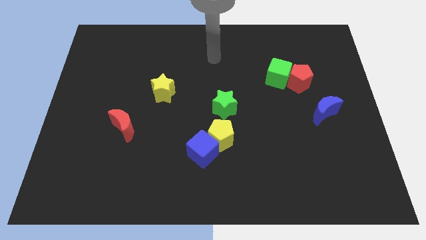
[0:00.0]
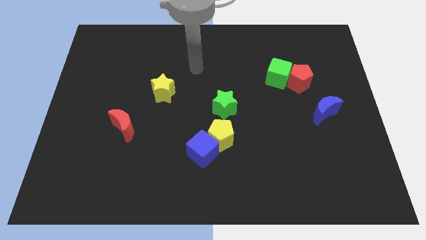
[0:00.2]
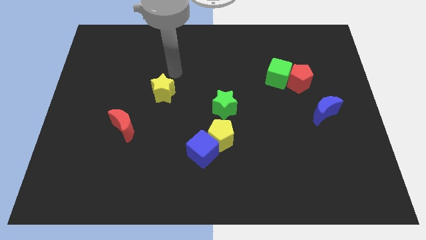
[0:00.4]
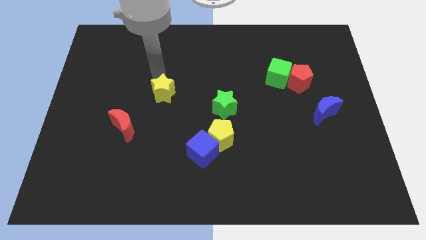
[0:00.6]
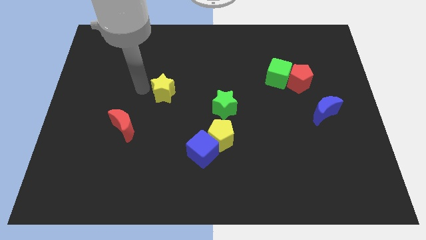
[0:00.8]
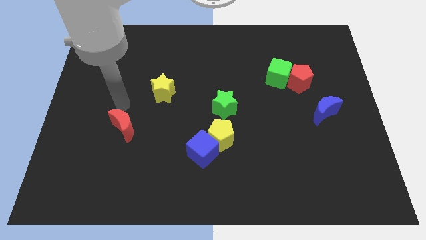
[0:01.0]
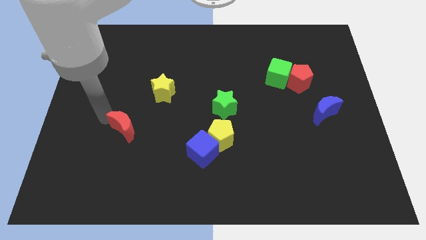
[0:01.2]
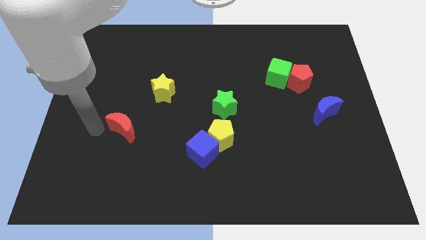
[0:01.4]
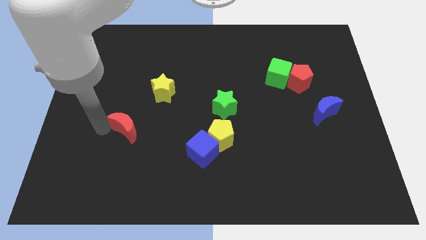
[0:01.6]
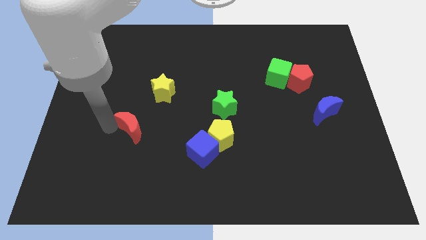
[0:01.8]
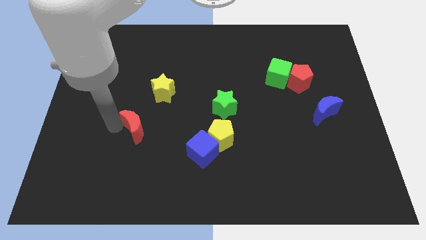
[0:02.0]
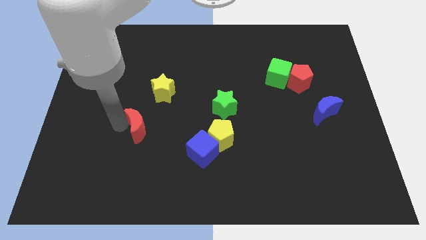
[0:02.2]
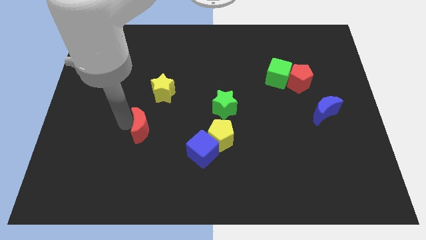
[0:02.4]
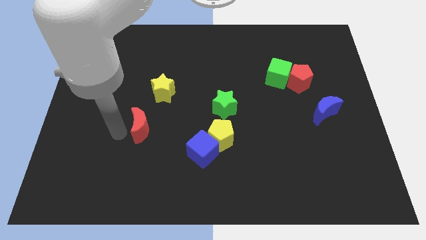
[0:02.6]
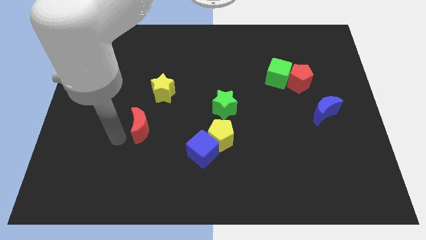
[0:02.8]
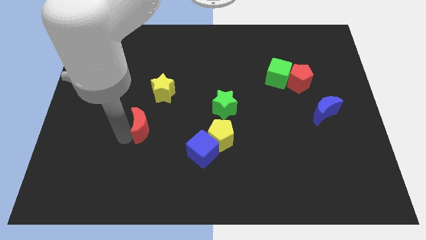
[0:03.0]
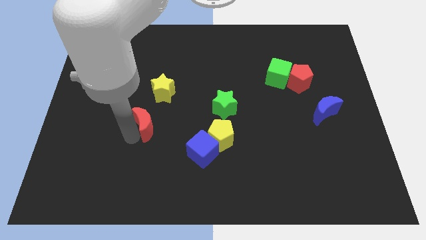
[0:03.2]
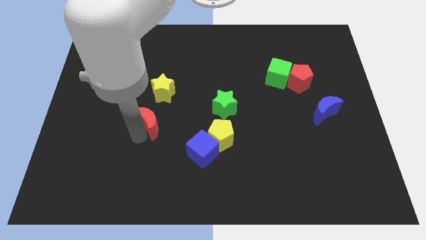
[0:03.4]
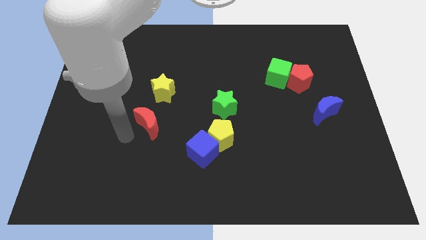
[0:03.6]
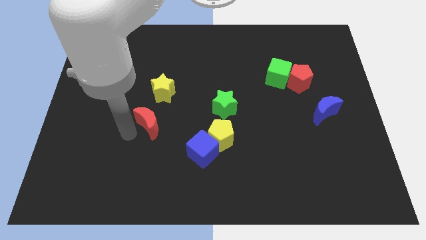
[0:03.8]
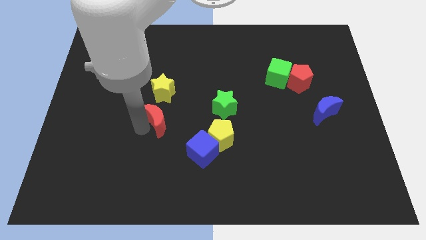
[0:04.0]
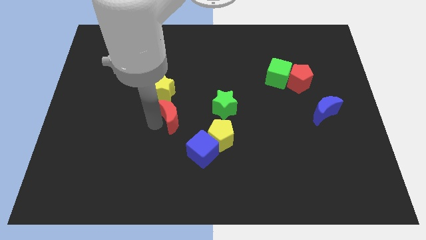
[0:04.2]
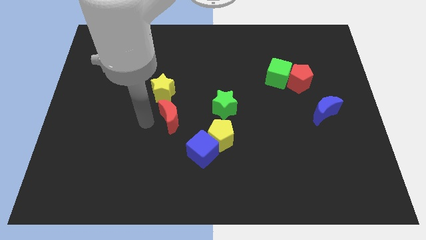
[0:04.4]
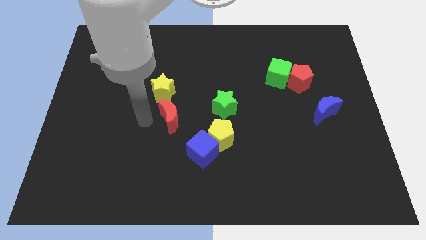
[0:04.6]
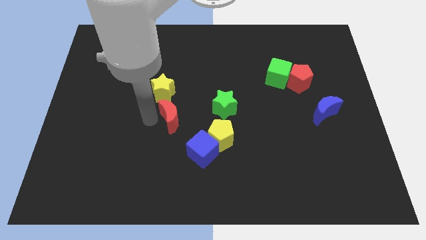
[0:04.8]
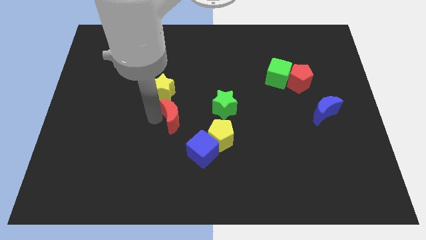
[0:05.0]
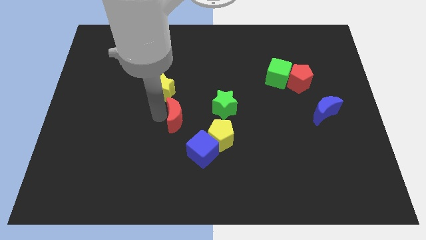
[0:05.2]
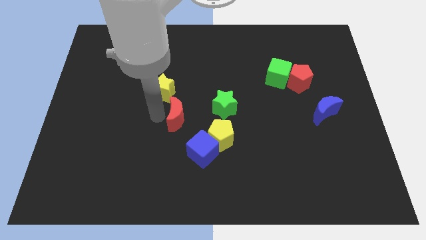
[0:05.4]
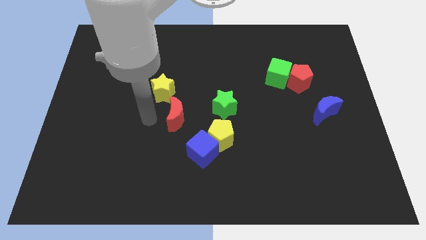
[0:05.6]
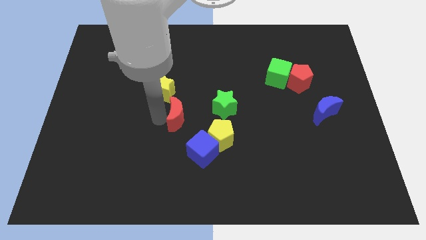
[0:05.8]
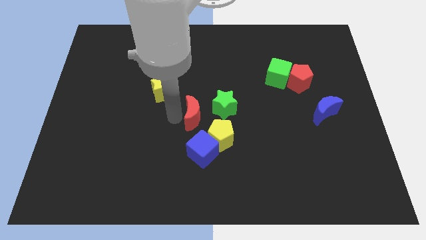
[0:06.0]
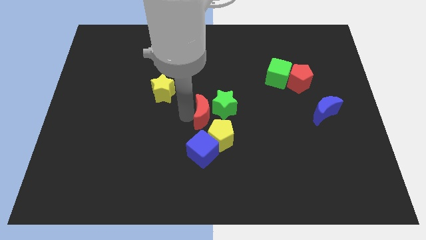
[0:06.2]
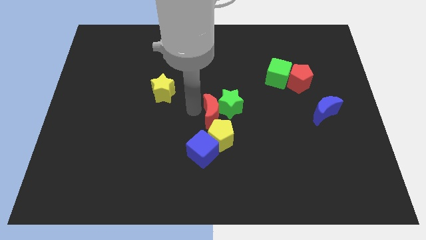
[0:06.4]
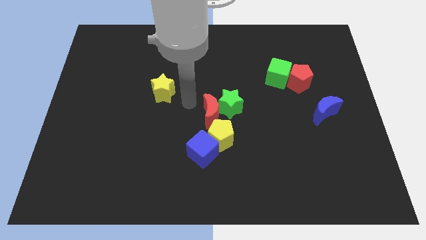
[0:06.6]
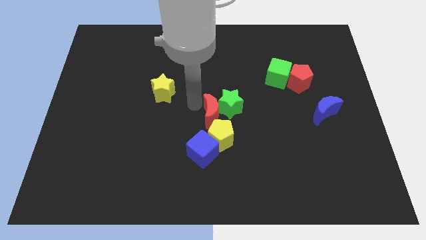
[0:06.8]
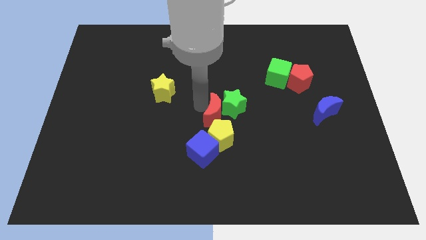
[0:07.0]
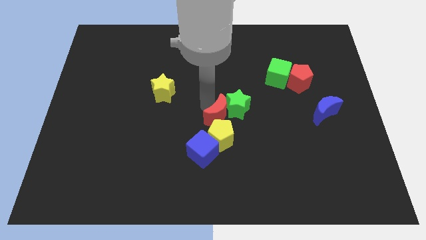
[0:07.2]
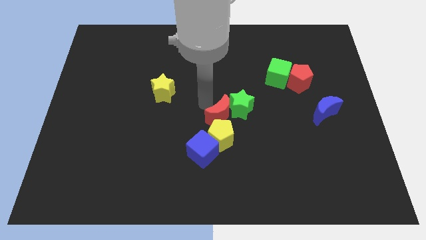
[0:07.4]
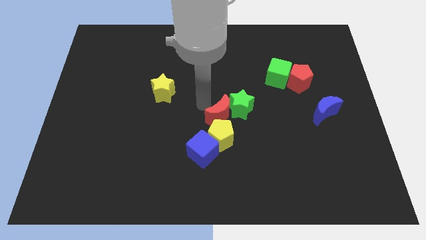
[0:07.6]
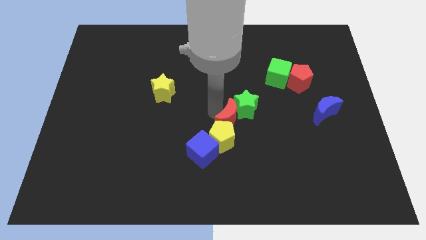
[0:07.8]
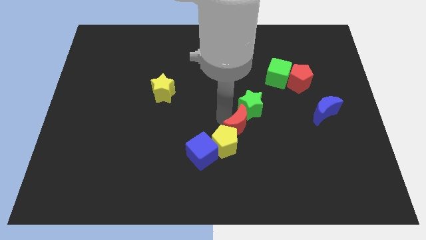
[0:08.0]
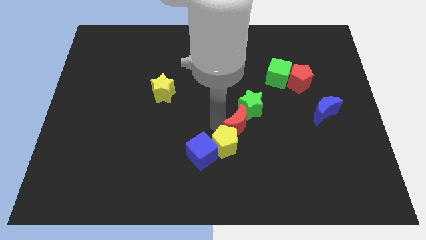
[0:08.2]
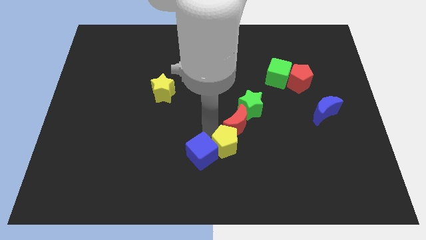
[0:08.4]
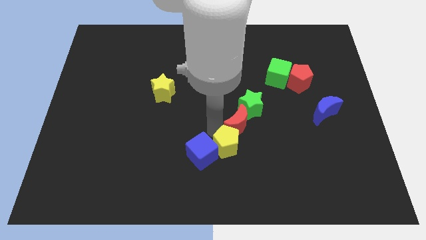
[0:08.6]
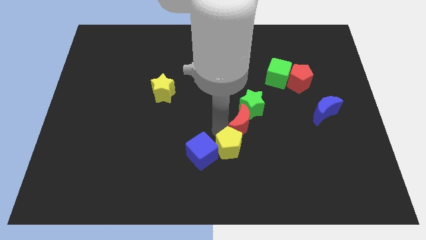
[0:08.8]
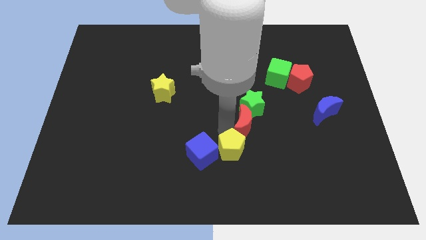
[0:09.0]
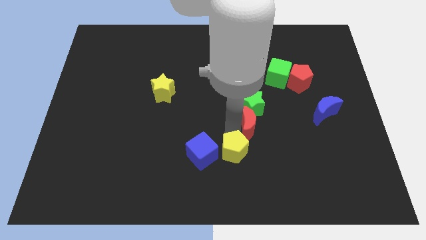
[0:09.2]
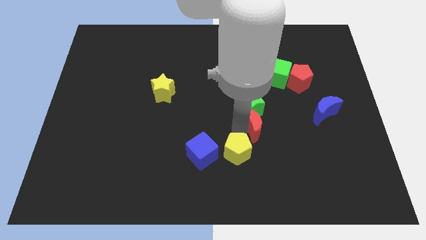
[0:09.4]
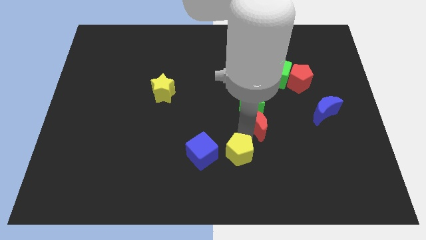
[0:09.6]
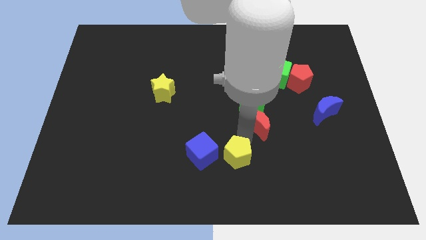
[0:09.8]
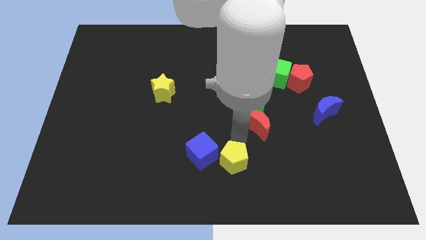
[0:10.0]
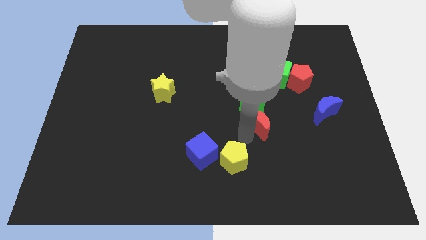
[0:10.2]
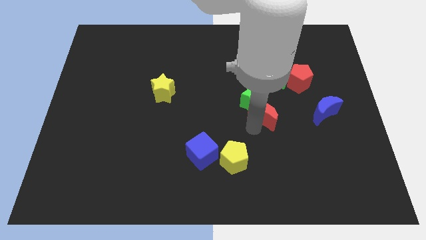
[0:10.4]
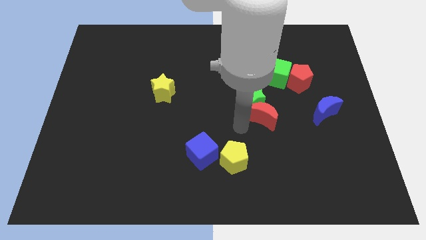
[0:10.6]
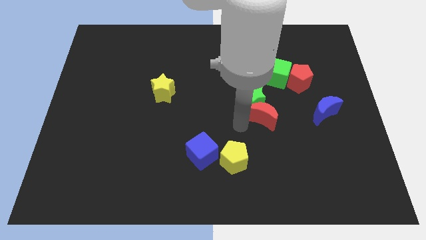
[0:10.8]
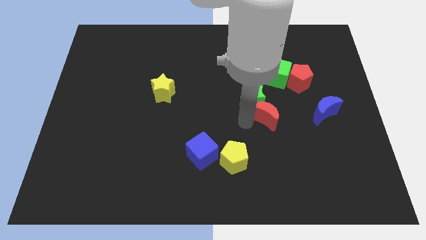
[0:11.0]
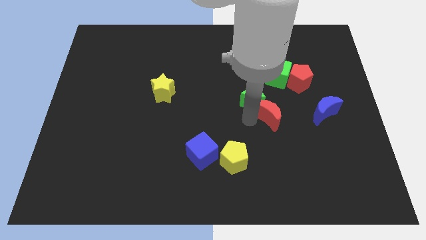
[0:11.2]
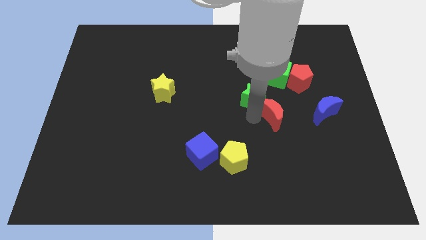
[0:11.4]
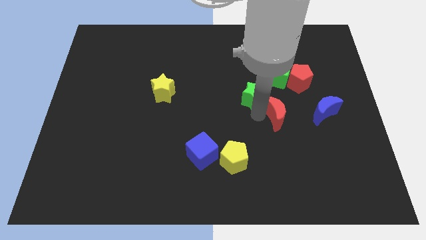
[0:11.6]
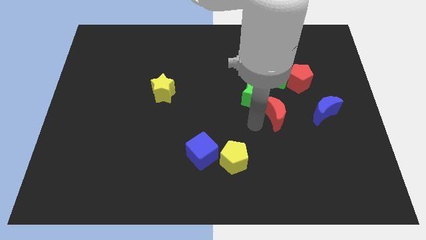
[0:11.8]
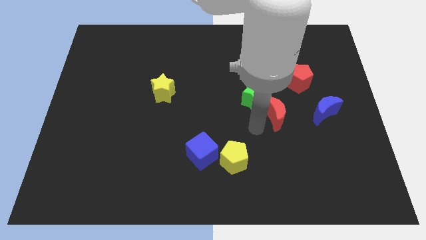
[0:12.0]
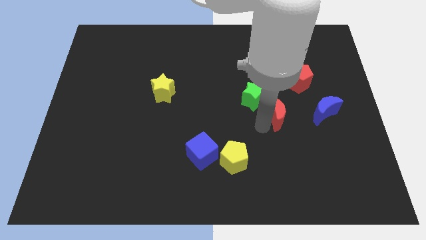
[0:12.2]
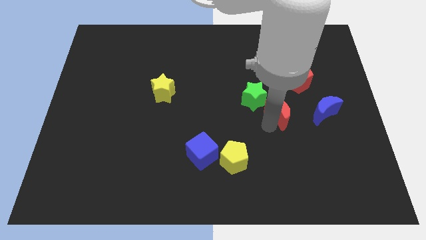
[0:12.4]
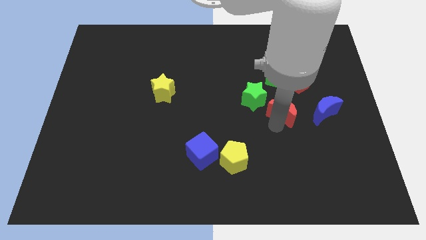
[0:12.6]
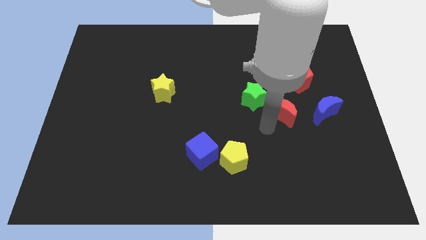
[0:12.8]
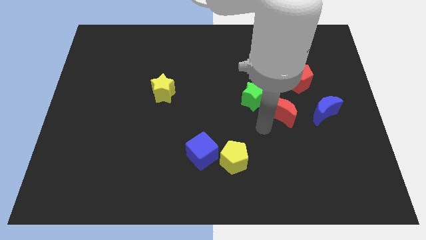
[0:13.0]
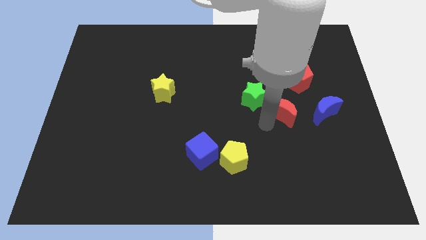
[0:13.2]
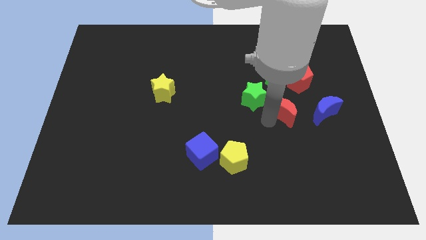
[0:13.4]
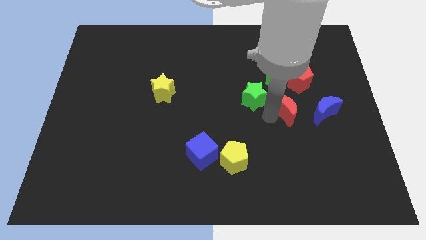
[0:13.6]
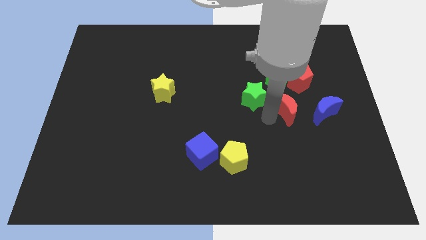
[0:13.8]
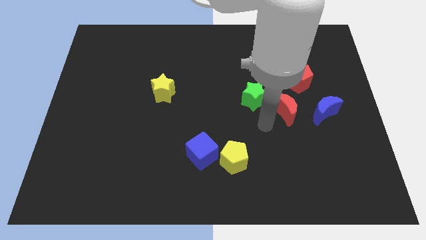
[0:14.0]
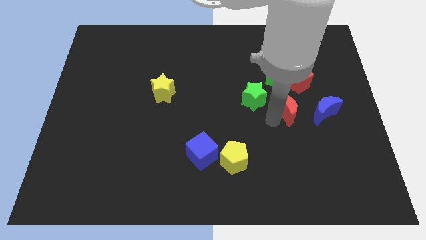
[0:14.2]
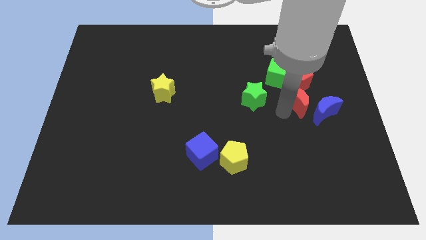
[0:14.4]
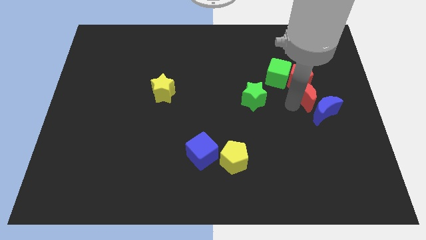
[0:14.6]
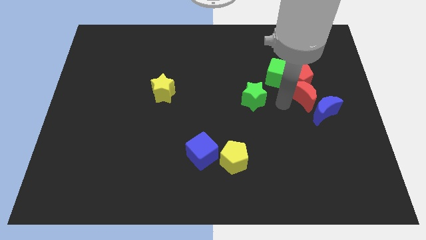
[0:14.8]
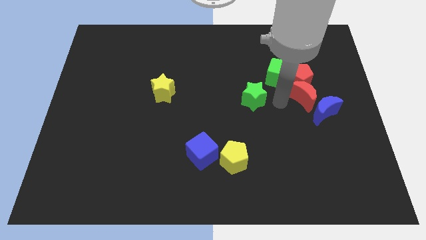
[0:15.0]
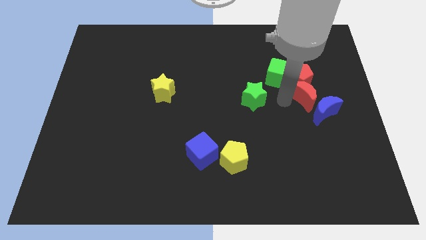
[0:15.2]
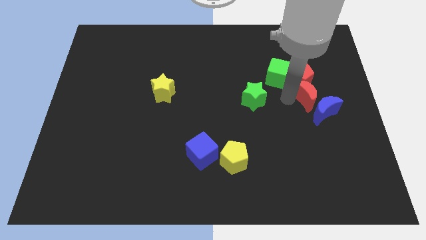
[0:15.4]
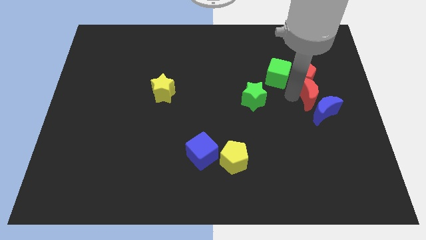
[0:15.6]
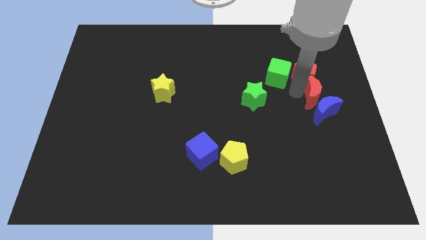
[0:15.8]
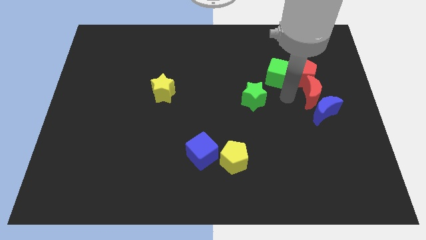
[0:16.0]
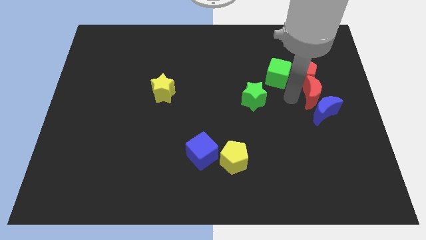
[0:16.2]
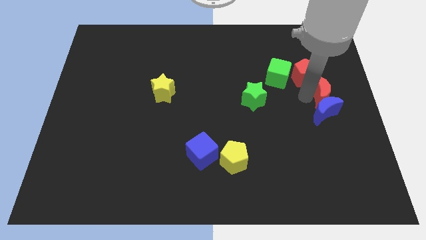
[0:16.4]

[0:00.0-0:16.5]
push the red moon to the center right
